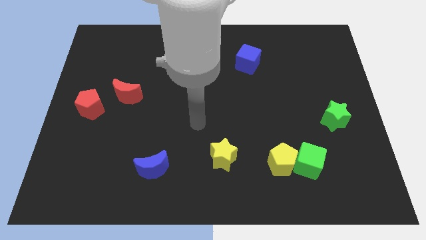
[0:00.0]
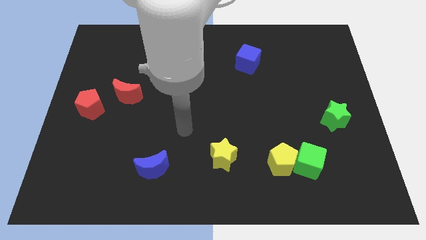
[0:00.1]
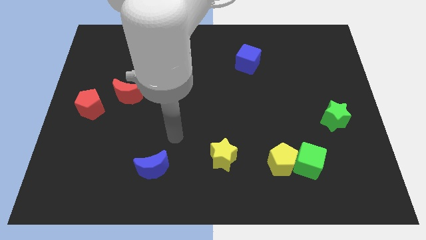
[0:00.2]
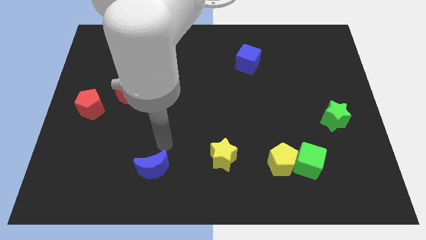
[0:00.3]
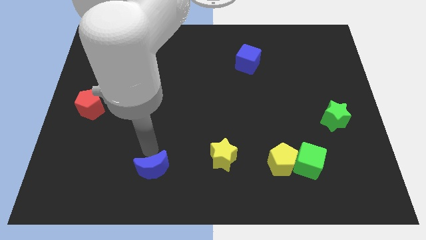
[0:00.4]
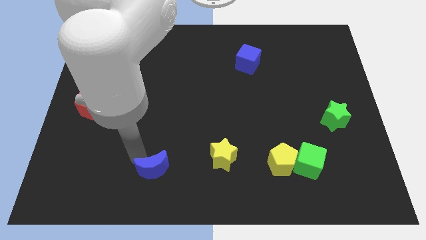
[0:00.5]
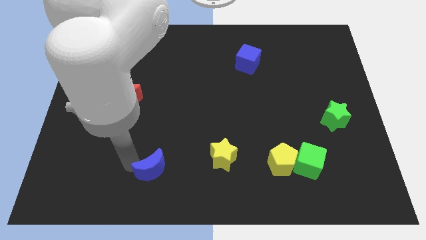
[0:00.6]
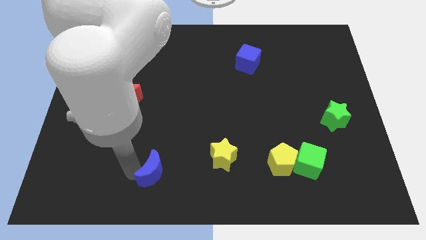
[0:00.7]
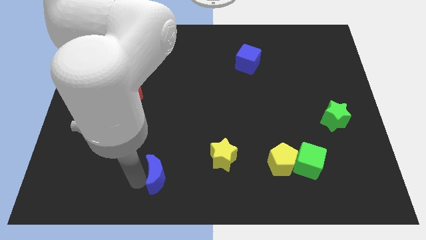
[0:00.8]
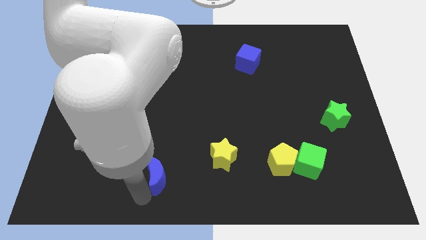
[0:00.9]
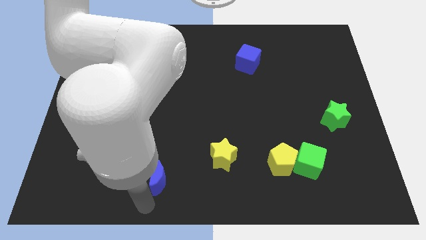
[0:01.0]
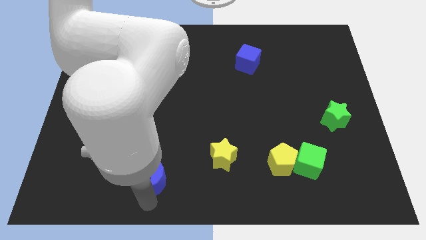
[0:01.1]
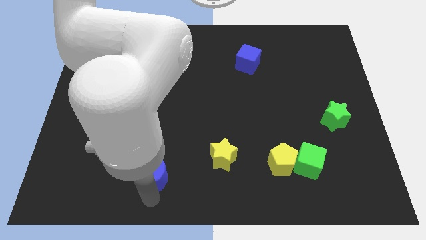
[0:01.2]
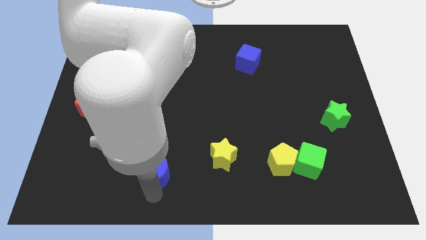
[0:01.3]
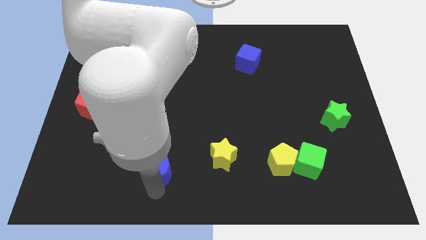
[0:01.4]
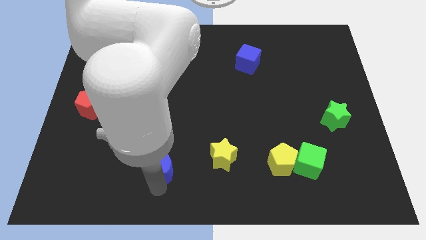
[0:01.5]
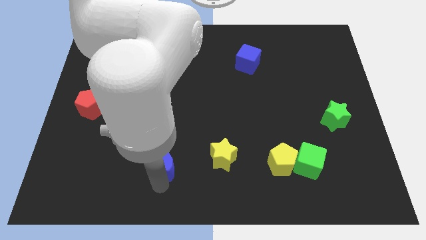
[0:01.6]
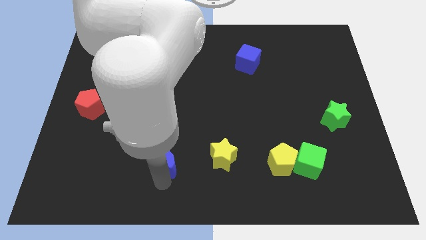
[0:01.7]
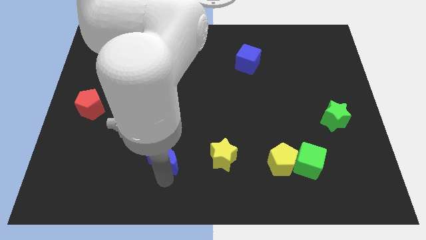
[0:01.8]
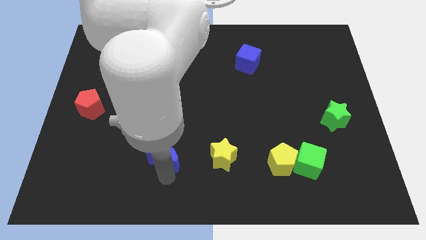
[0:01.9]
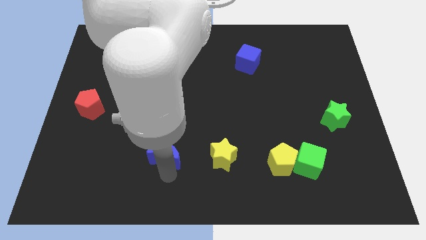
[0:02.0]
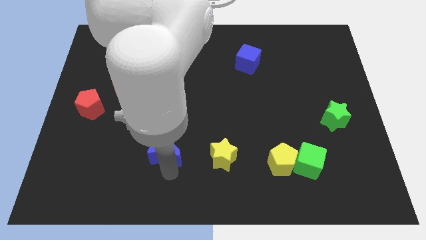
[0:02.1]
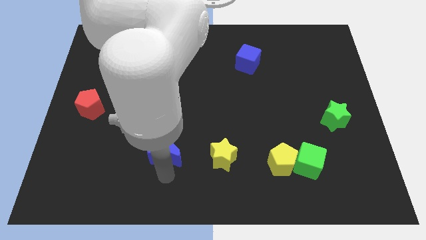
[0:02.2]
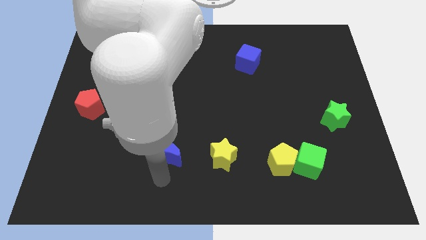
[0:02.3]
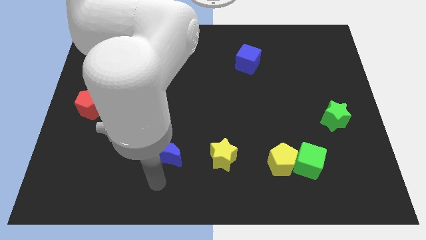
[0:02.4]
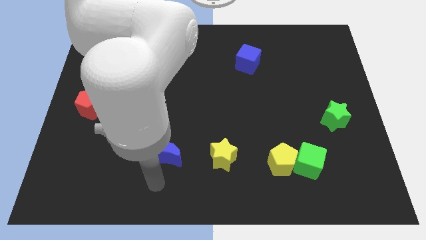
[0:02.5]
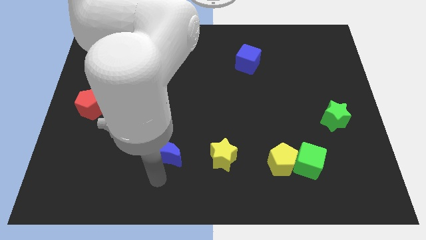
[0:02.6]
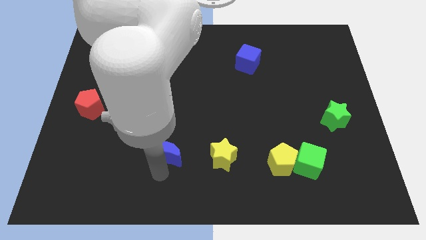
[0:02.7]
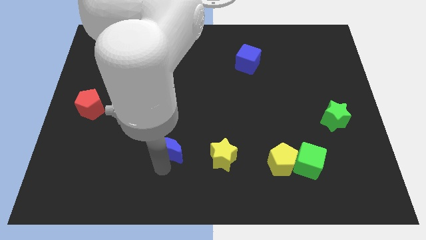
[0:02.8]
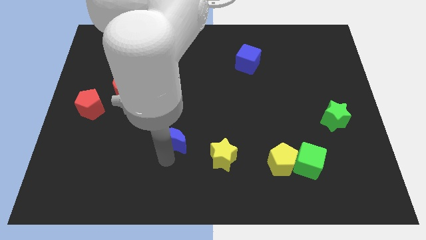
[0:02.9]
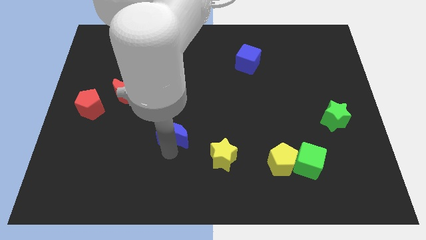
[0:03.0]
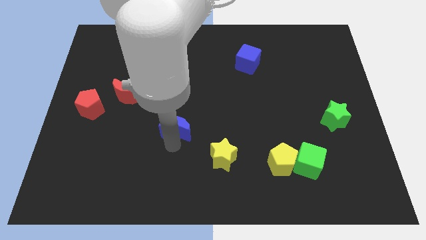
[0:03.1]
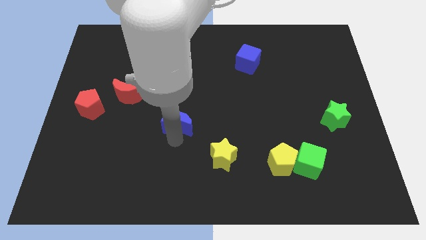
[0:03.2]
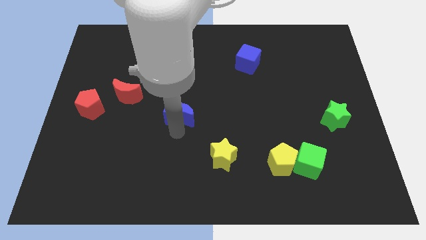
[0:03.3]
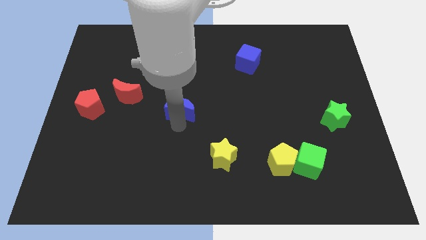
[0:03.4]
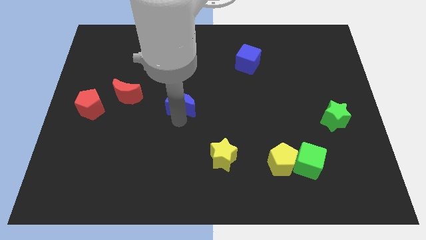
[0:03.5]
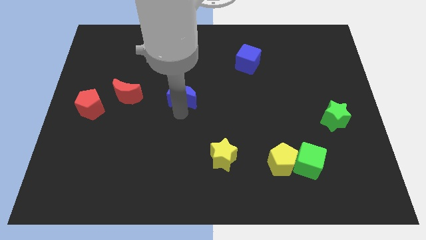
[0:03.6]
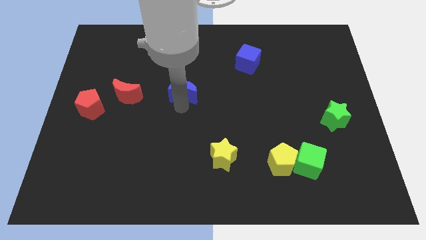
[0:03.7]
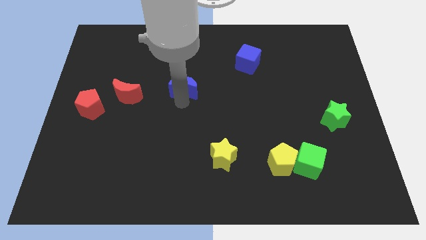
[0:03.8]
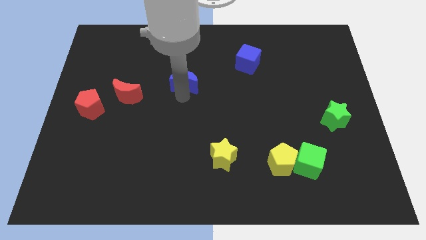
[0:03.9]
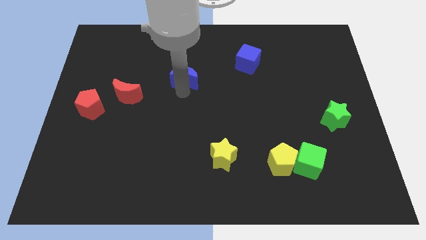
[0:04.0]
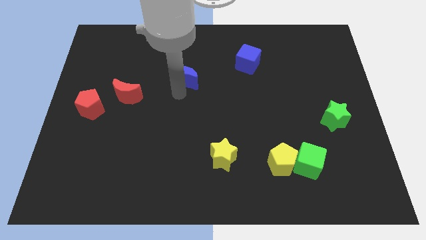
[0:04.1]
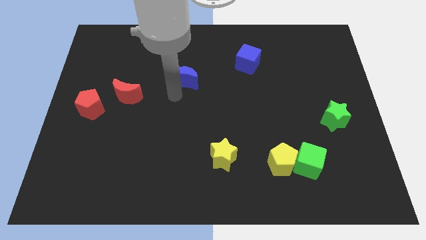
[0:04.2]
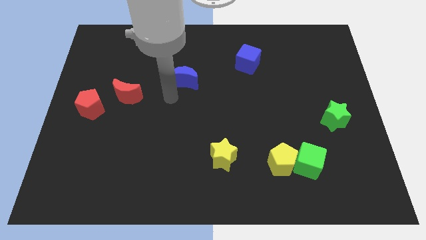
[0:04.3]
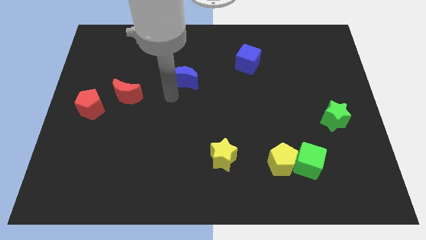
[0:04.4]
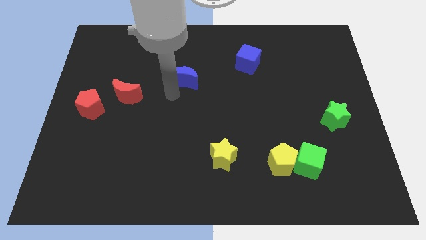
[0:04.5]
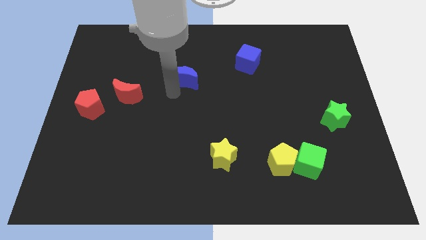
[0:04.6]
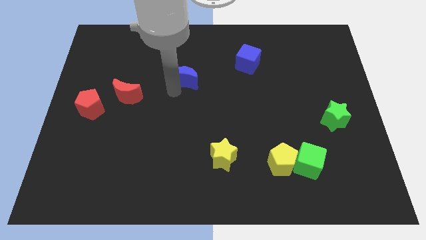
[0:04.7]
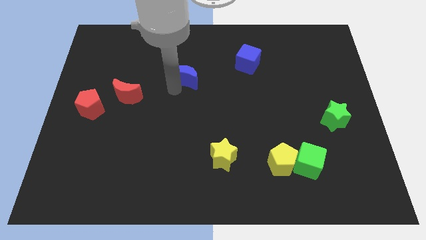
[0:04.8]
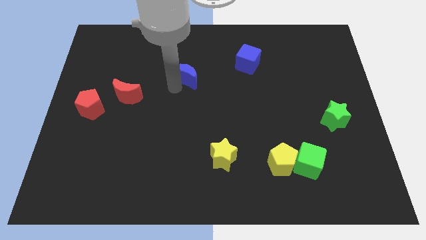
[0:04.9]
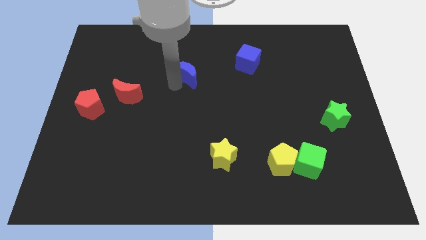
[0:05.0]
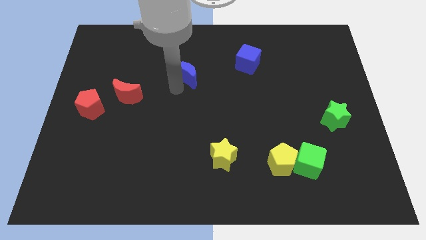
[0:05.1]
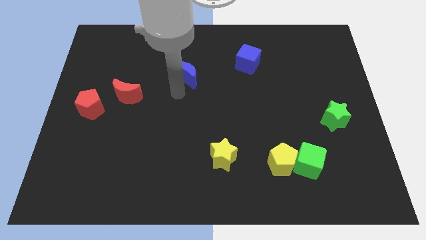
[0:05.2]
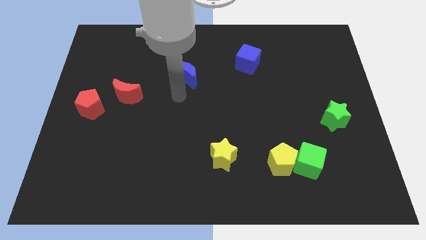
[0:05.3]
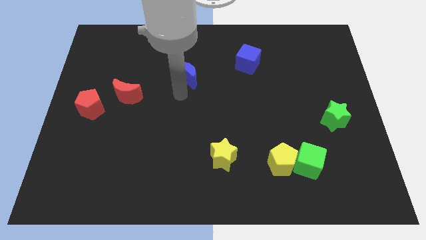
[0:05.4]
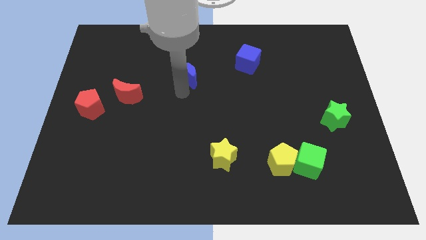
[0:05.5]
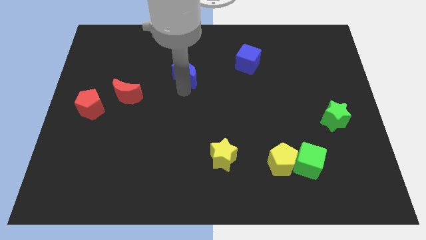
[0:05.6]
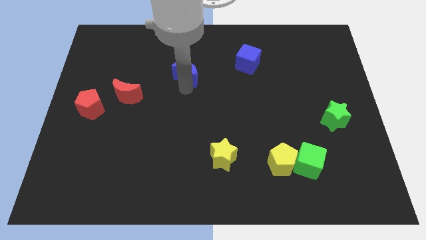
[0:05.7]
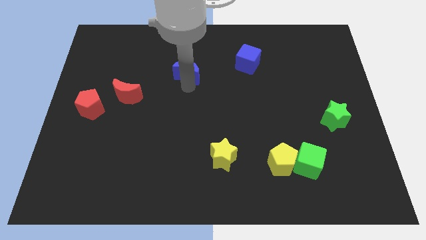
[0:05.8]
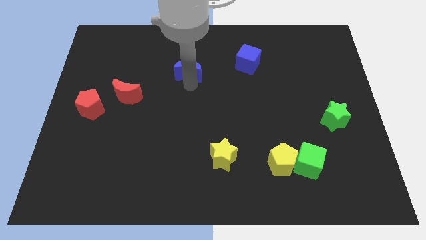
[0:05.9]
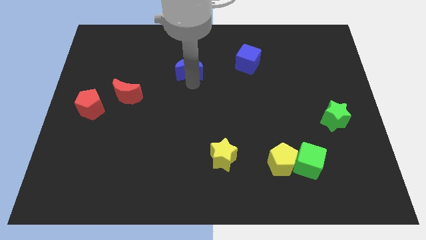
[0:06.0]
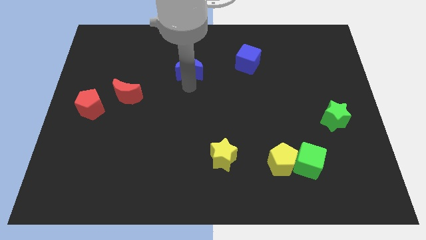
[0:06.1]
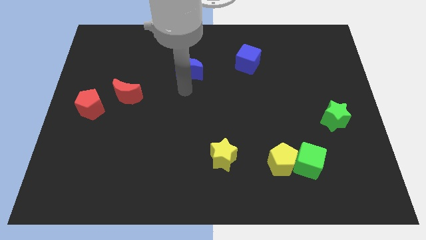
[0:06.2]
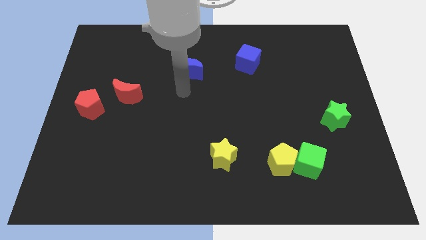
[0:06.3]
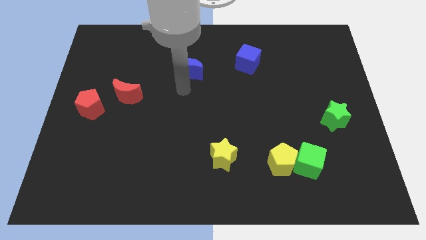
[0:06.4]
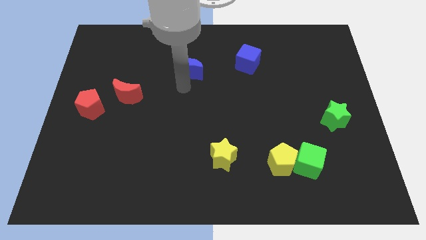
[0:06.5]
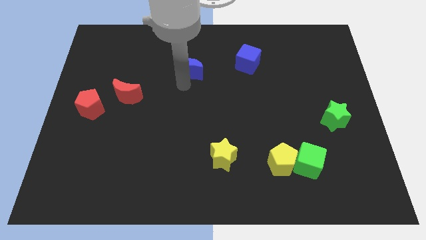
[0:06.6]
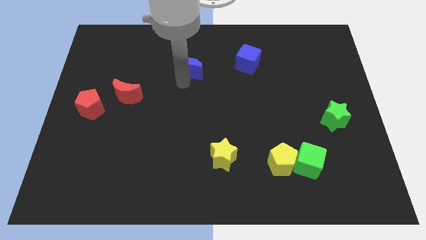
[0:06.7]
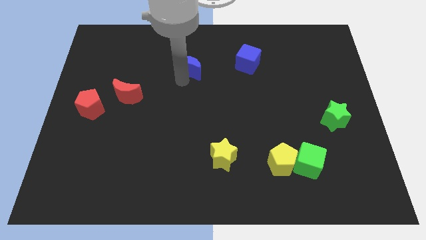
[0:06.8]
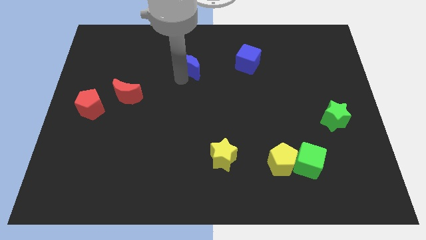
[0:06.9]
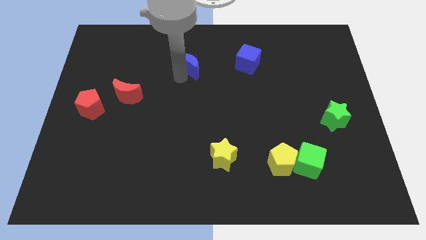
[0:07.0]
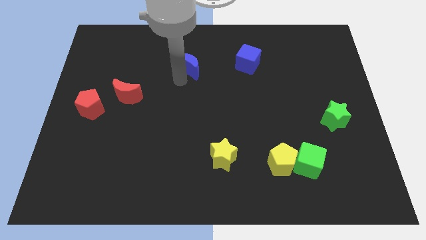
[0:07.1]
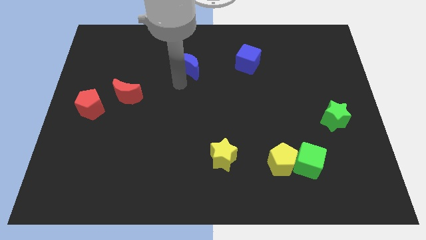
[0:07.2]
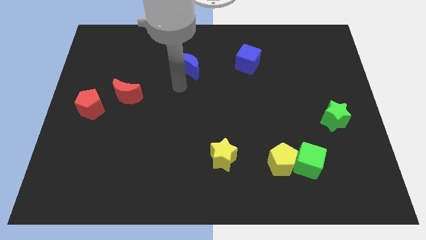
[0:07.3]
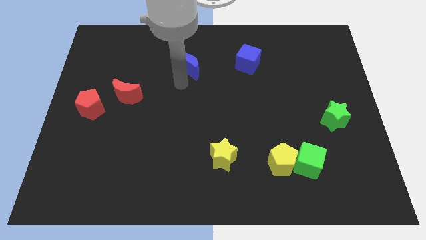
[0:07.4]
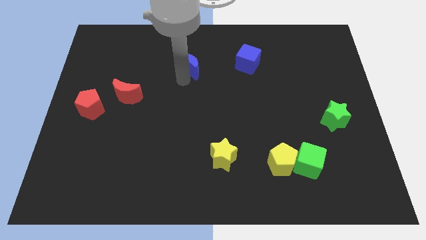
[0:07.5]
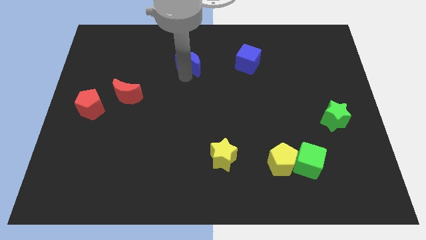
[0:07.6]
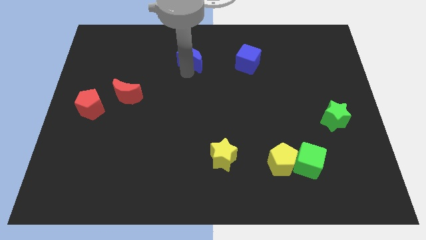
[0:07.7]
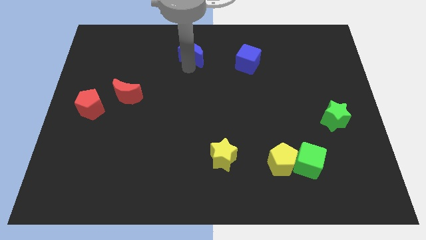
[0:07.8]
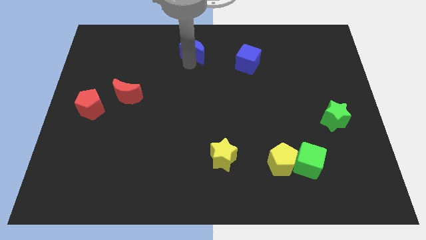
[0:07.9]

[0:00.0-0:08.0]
put the blue moon to the top side
